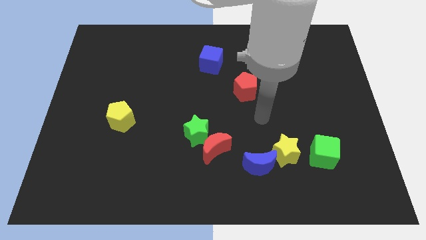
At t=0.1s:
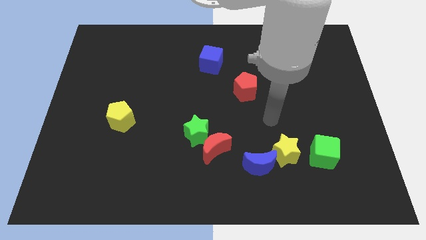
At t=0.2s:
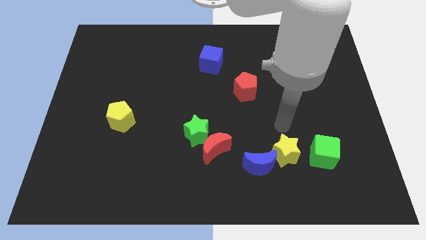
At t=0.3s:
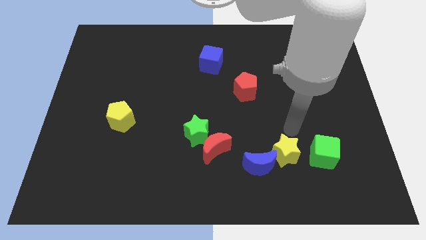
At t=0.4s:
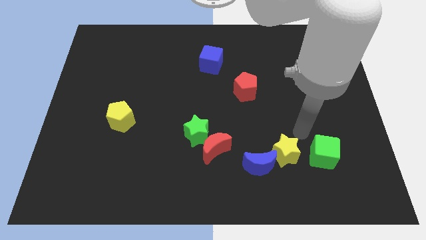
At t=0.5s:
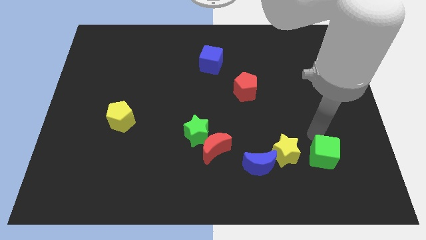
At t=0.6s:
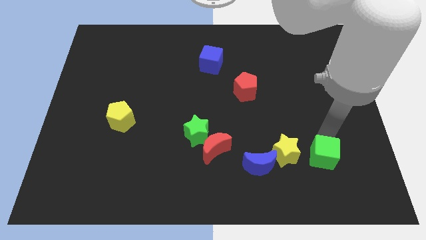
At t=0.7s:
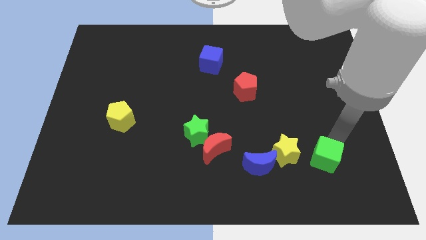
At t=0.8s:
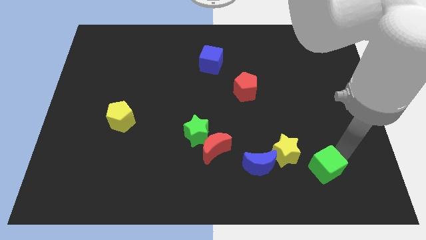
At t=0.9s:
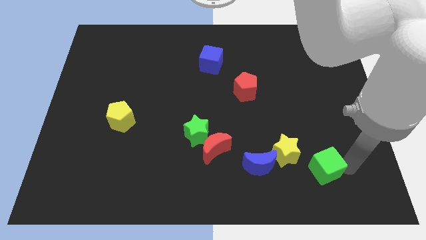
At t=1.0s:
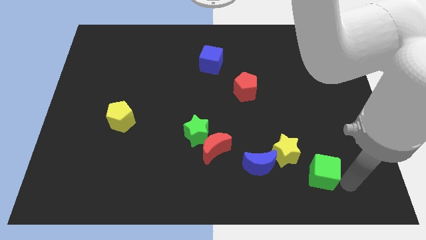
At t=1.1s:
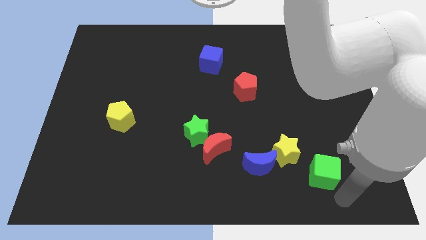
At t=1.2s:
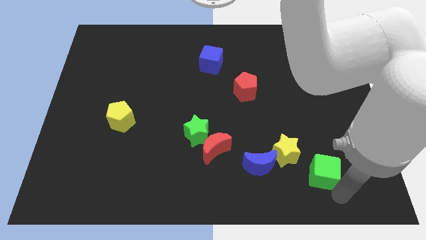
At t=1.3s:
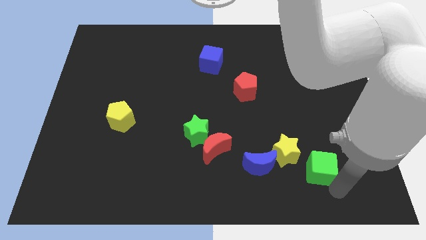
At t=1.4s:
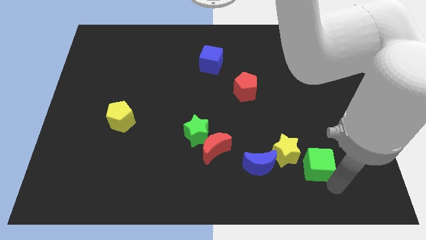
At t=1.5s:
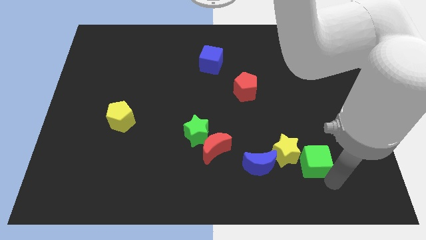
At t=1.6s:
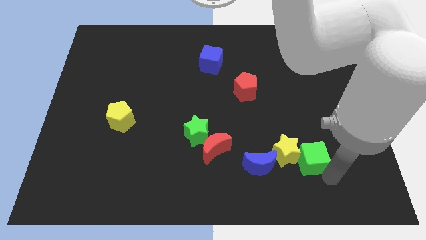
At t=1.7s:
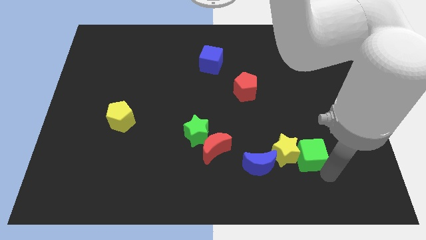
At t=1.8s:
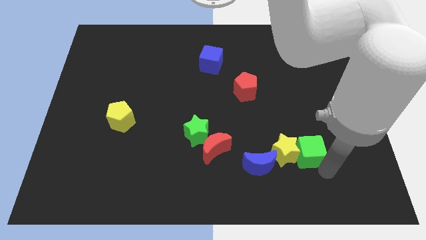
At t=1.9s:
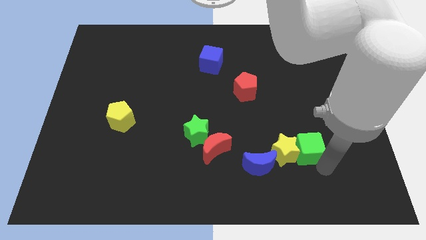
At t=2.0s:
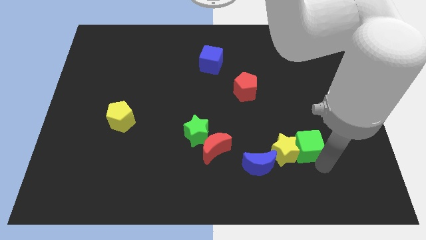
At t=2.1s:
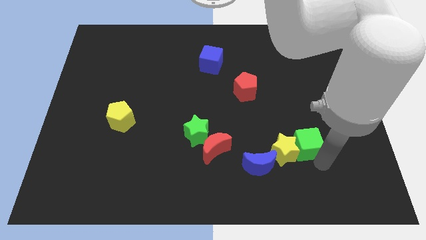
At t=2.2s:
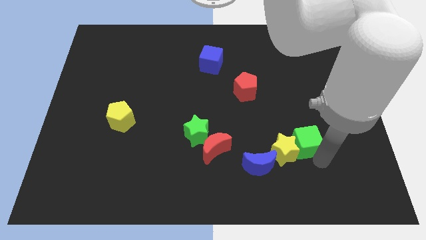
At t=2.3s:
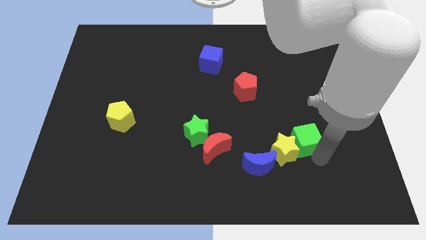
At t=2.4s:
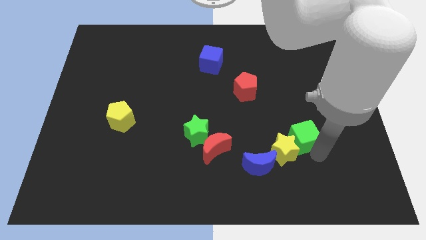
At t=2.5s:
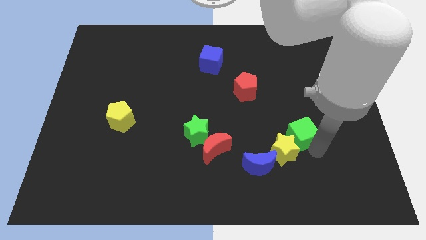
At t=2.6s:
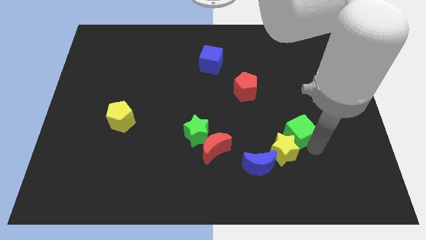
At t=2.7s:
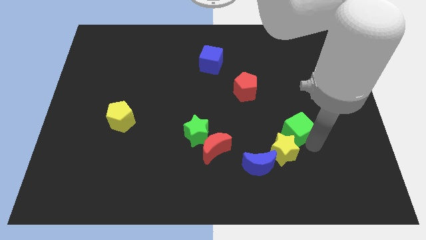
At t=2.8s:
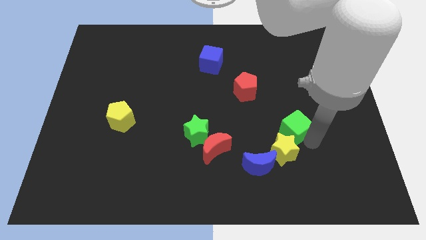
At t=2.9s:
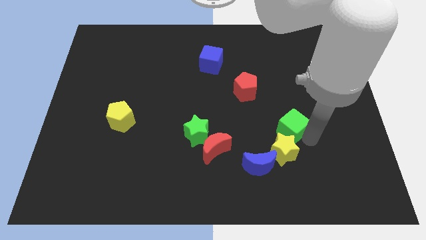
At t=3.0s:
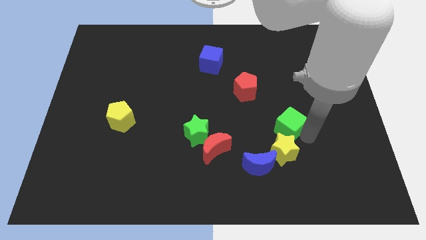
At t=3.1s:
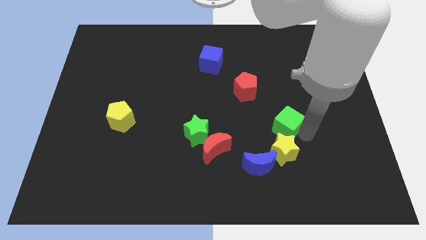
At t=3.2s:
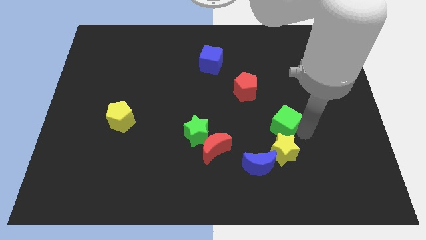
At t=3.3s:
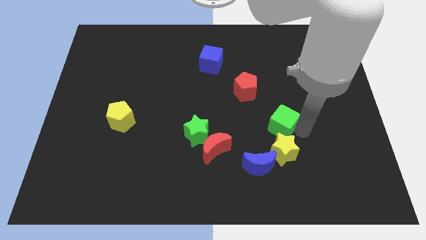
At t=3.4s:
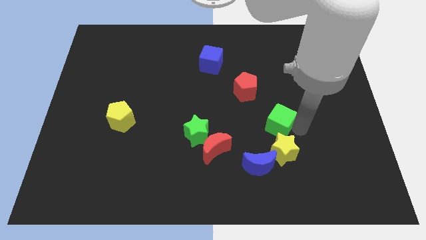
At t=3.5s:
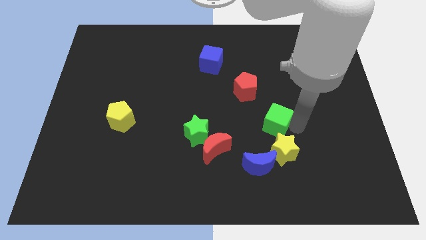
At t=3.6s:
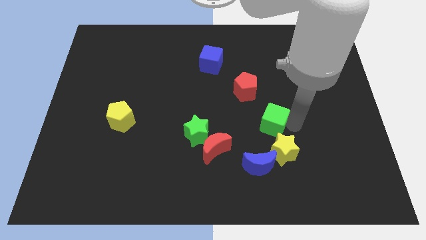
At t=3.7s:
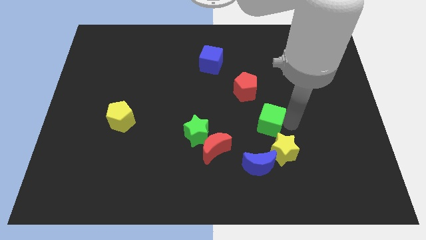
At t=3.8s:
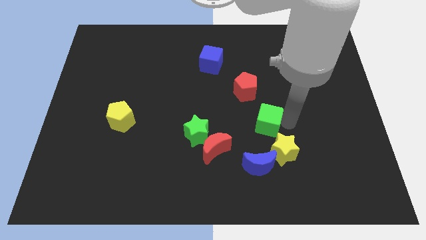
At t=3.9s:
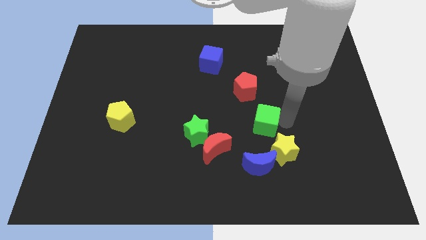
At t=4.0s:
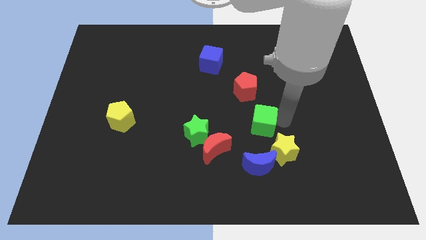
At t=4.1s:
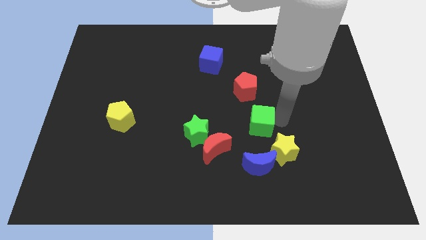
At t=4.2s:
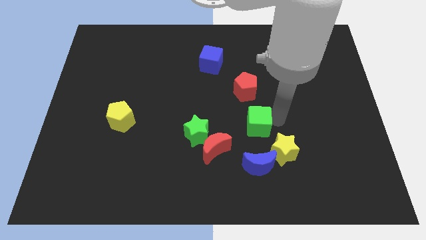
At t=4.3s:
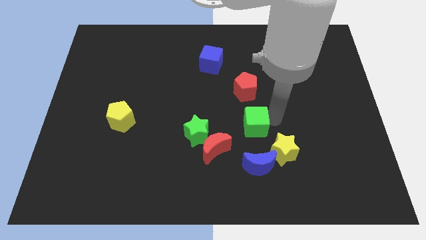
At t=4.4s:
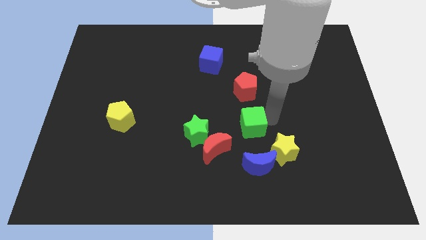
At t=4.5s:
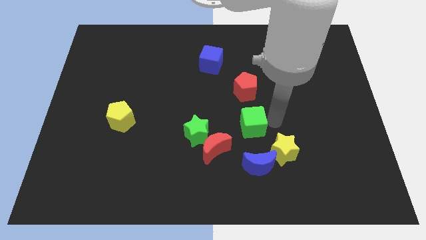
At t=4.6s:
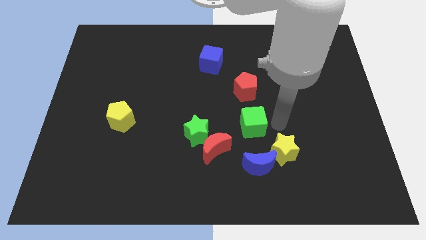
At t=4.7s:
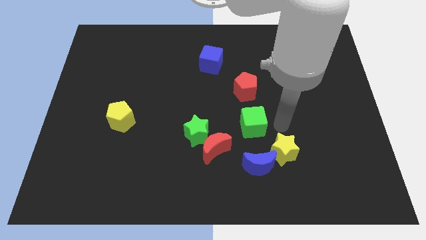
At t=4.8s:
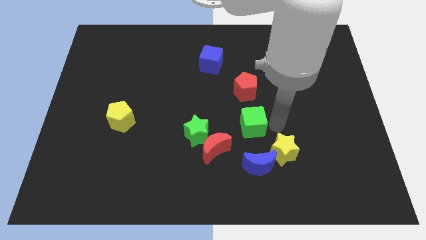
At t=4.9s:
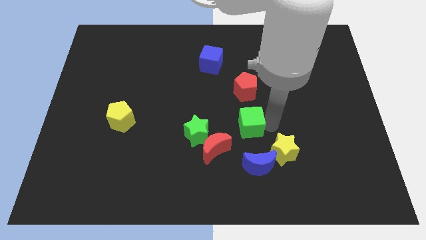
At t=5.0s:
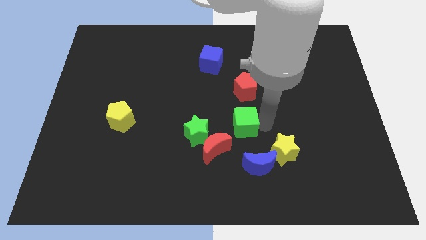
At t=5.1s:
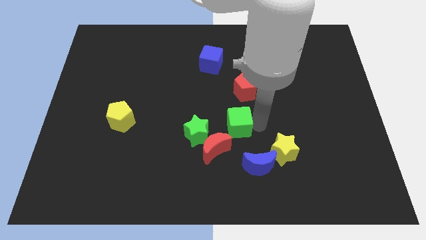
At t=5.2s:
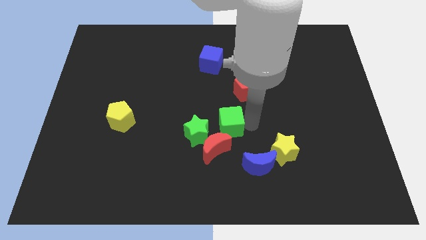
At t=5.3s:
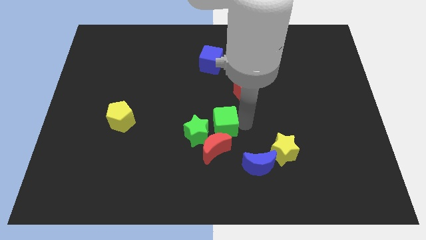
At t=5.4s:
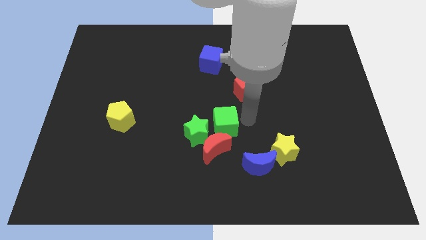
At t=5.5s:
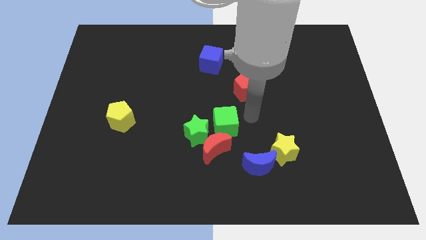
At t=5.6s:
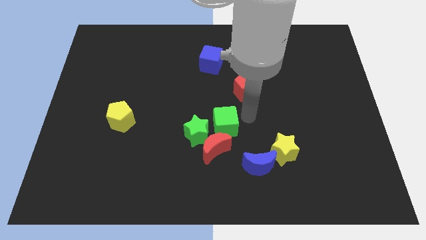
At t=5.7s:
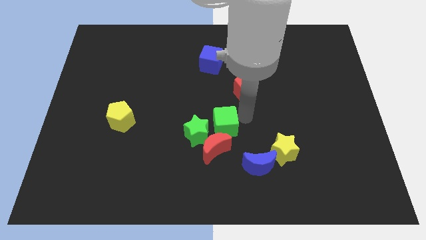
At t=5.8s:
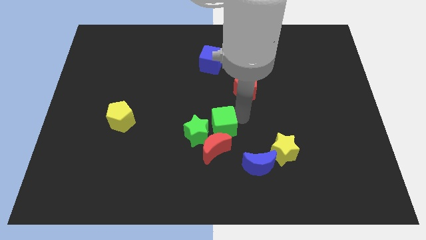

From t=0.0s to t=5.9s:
move the green cube close to the green star

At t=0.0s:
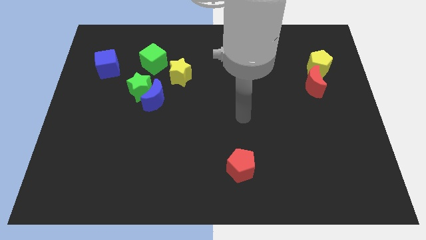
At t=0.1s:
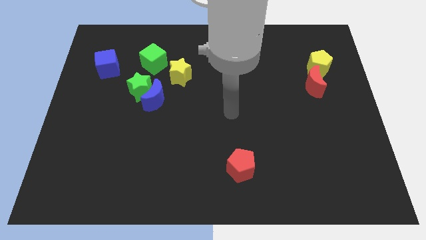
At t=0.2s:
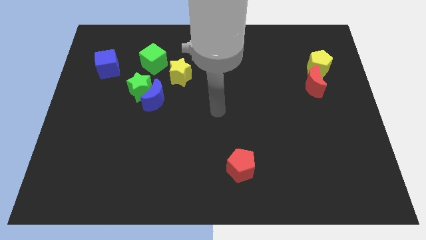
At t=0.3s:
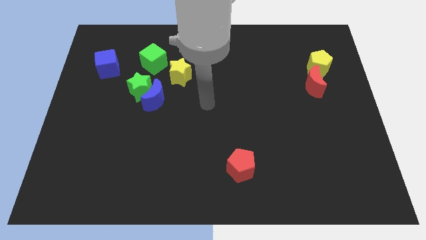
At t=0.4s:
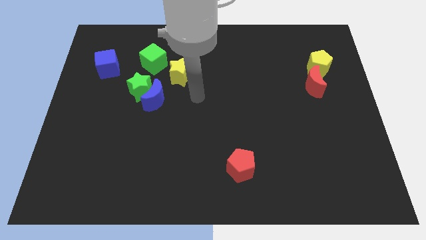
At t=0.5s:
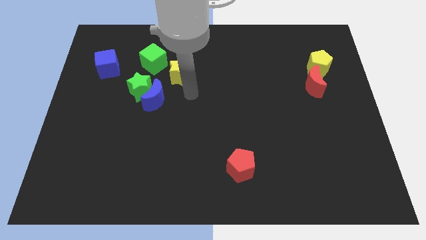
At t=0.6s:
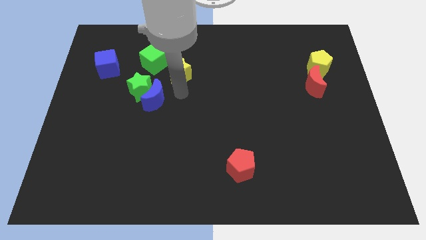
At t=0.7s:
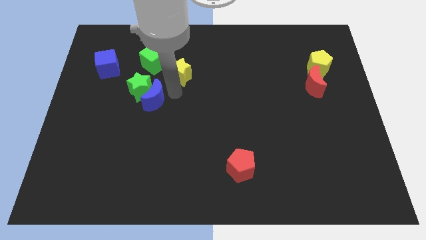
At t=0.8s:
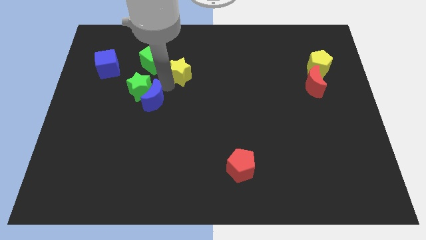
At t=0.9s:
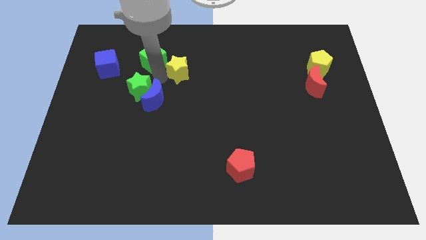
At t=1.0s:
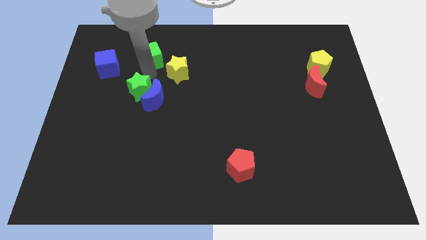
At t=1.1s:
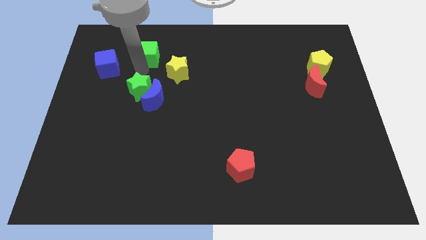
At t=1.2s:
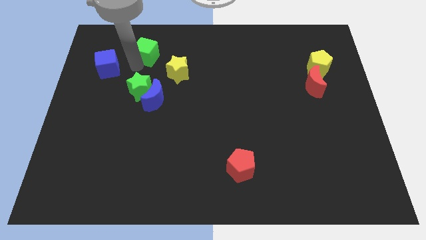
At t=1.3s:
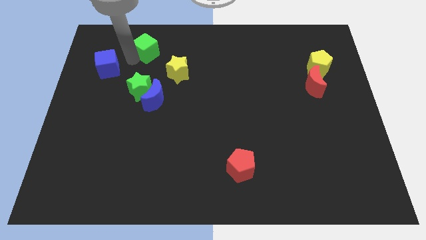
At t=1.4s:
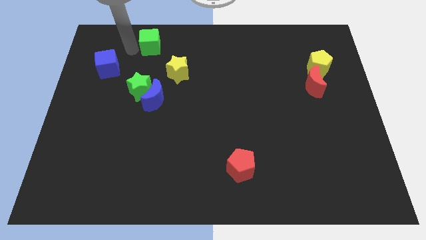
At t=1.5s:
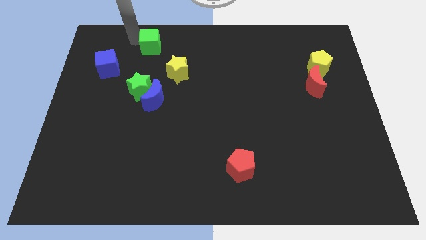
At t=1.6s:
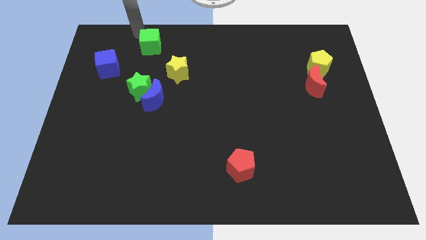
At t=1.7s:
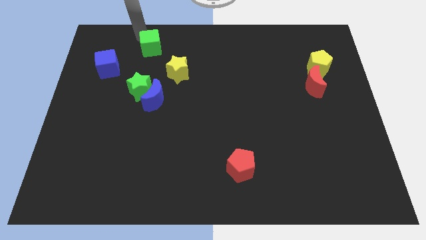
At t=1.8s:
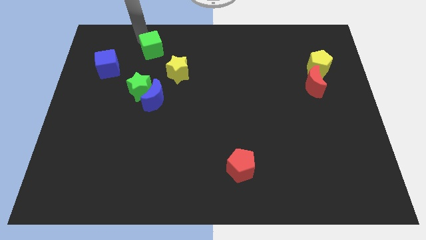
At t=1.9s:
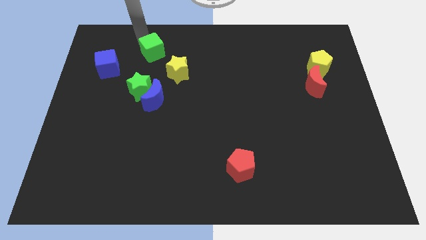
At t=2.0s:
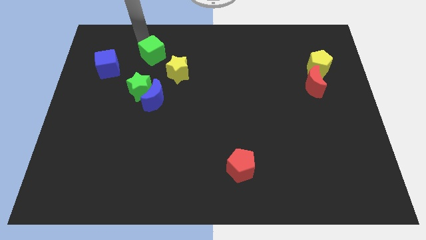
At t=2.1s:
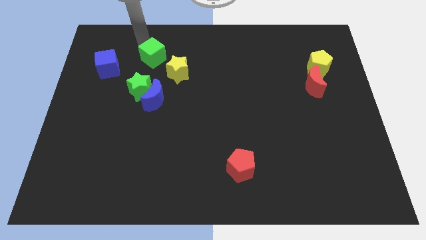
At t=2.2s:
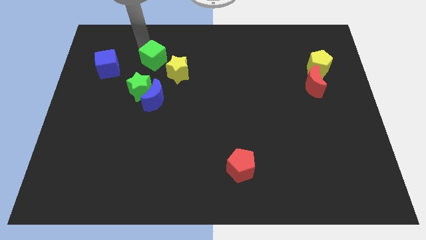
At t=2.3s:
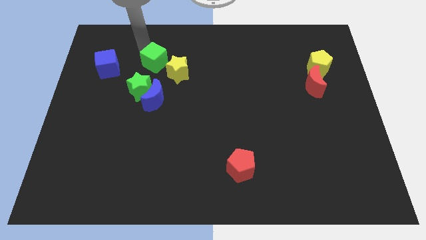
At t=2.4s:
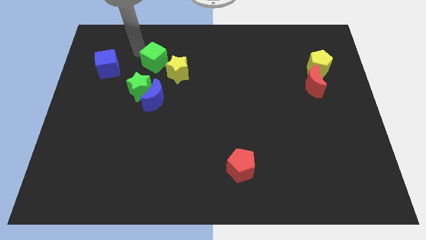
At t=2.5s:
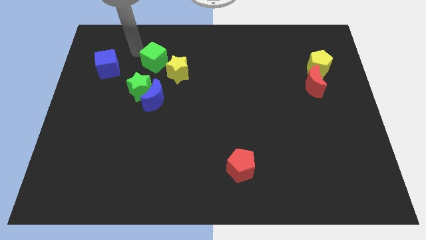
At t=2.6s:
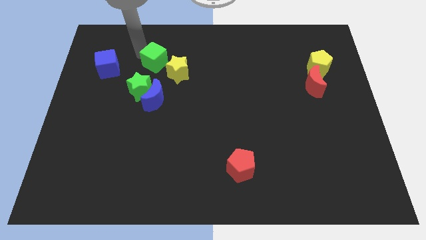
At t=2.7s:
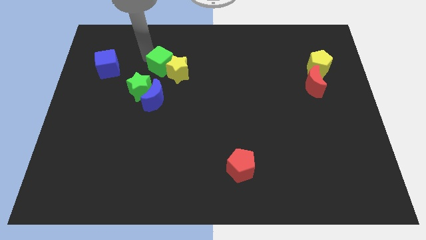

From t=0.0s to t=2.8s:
put the green cube towards the yellow star
